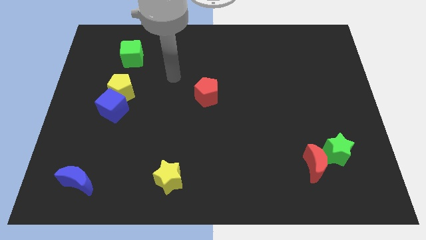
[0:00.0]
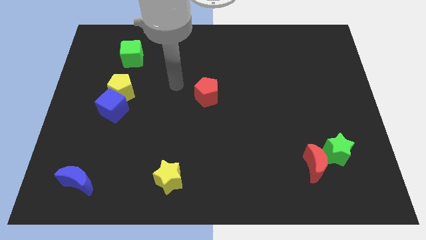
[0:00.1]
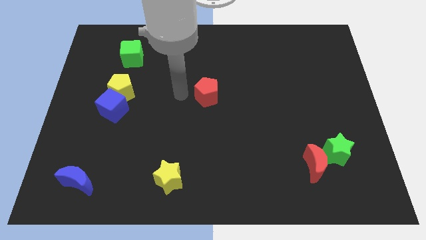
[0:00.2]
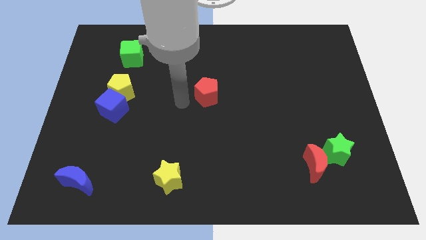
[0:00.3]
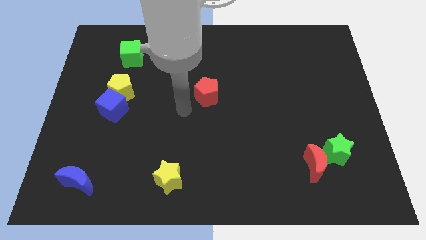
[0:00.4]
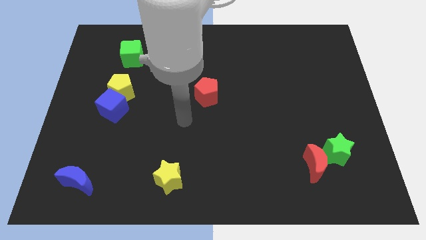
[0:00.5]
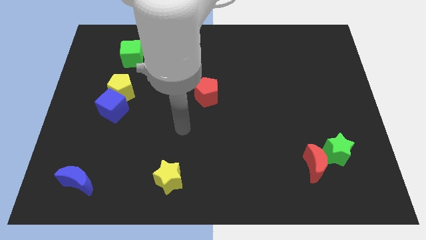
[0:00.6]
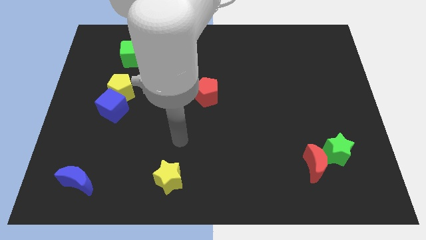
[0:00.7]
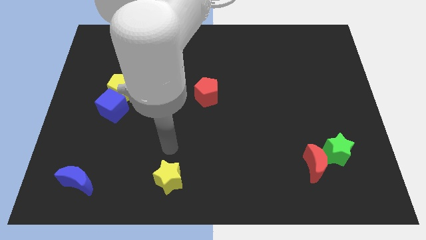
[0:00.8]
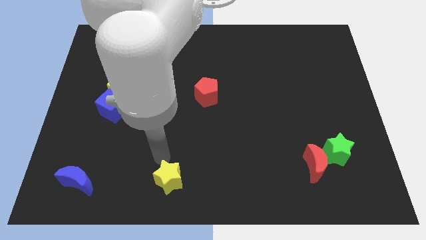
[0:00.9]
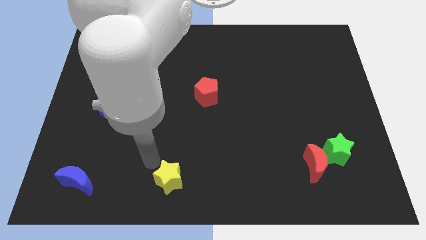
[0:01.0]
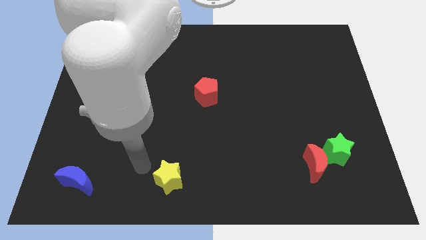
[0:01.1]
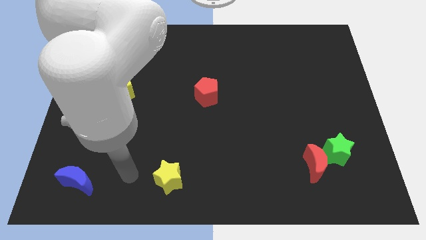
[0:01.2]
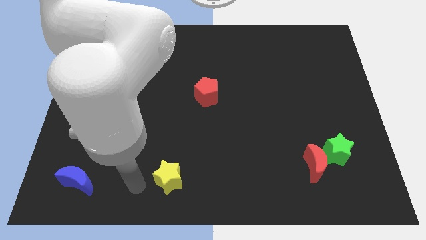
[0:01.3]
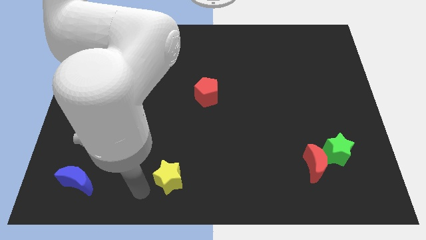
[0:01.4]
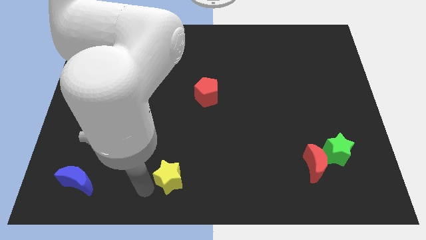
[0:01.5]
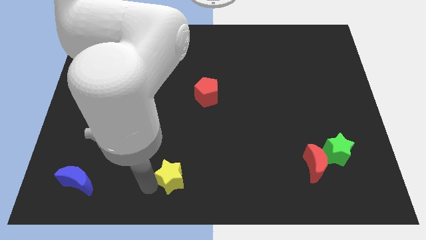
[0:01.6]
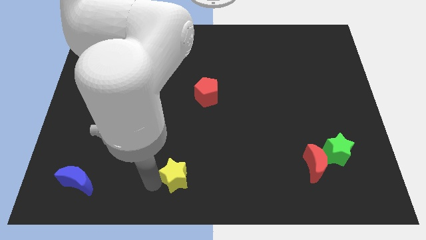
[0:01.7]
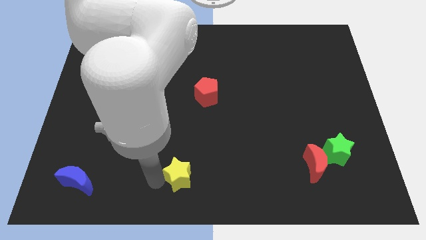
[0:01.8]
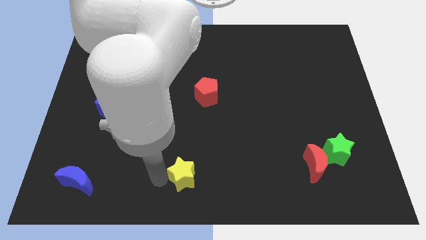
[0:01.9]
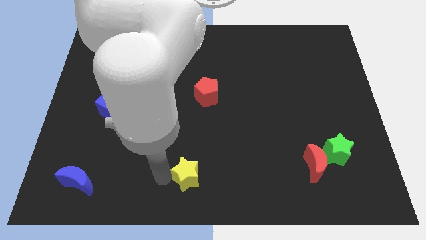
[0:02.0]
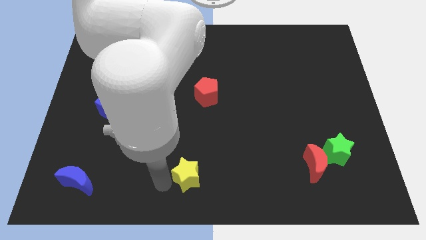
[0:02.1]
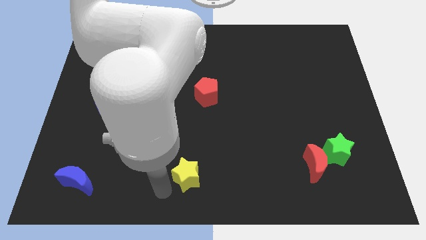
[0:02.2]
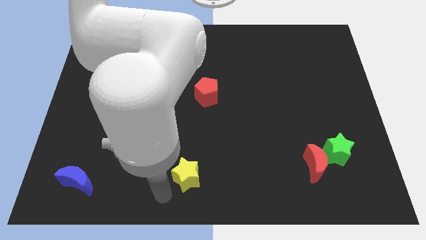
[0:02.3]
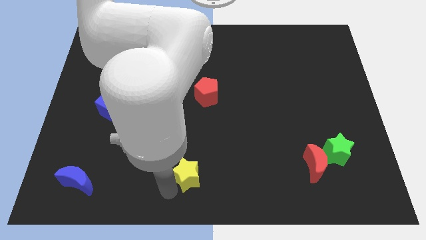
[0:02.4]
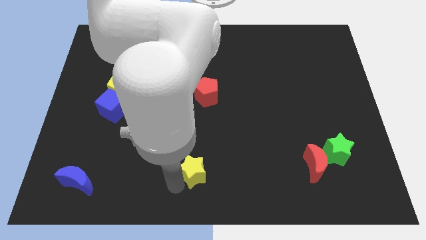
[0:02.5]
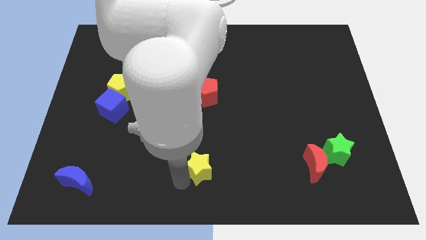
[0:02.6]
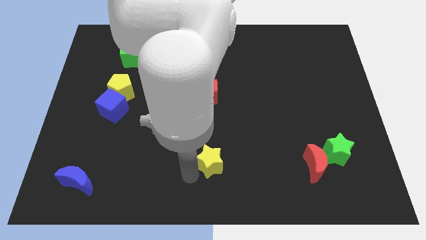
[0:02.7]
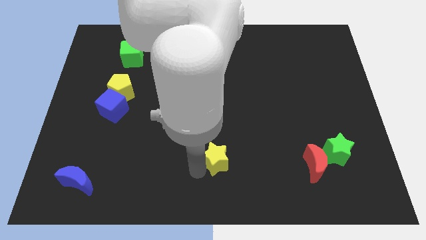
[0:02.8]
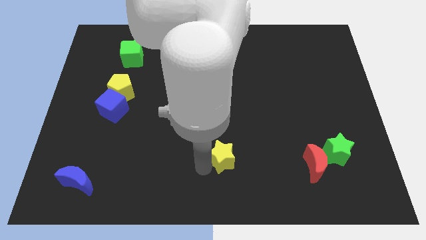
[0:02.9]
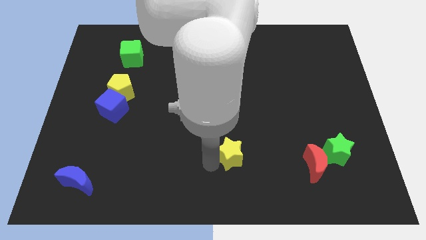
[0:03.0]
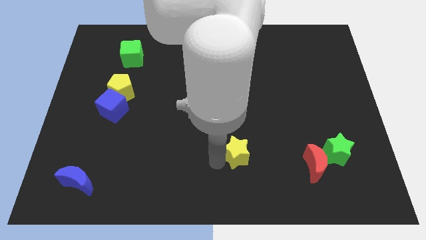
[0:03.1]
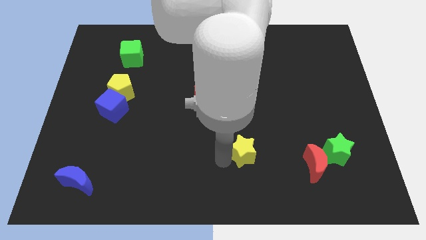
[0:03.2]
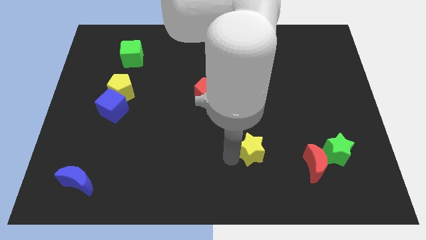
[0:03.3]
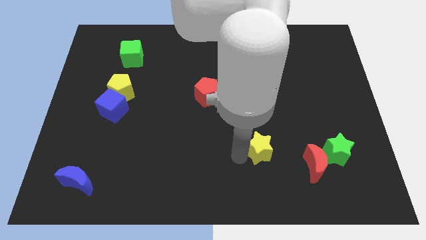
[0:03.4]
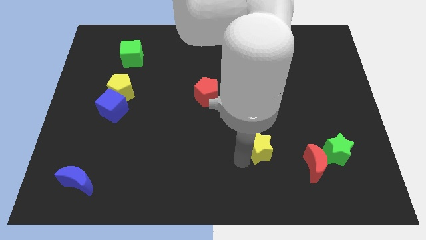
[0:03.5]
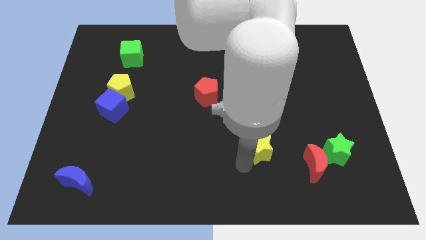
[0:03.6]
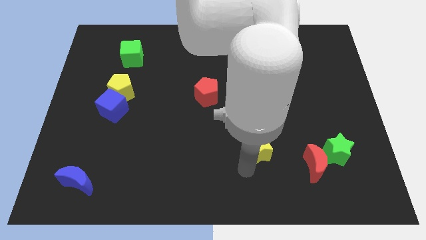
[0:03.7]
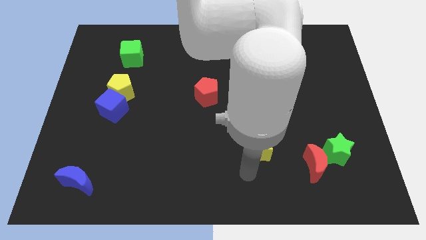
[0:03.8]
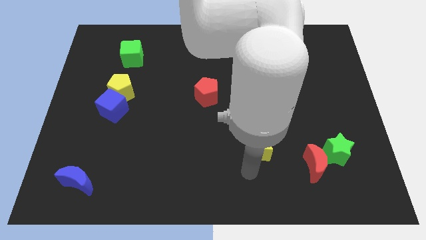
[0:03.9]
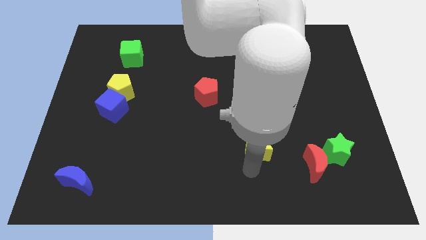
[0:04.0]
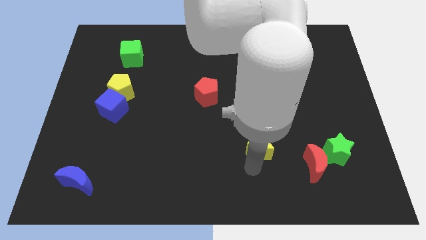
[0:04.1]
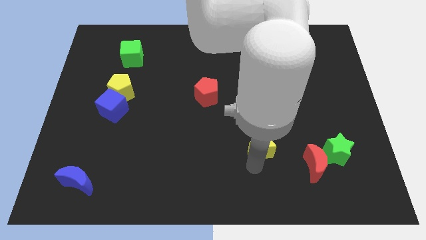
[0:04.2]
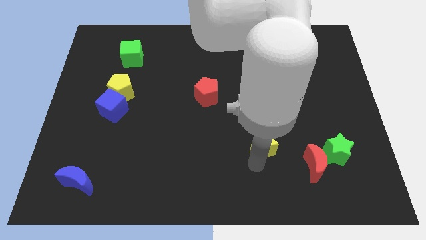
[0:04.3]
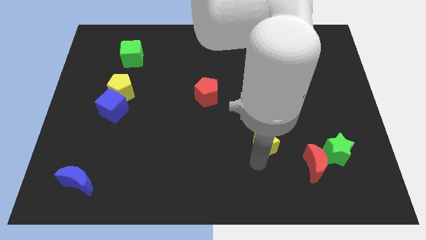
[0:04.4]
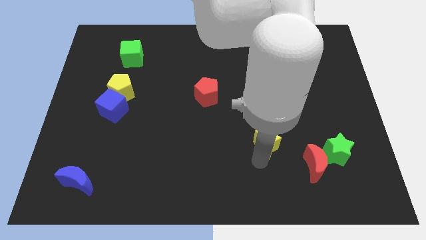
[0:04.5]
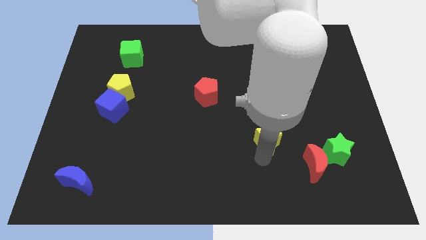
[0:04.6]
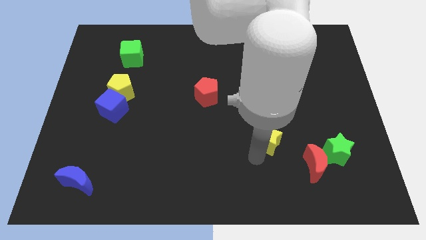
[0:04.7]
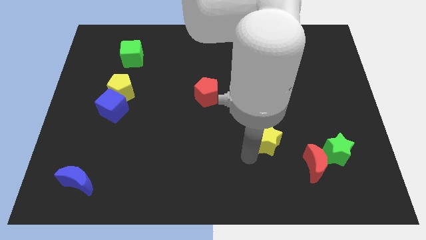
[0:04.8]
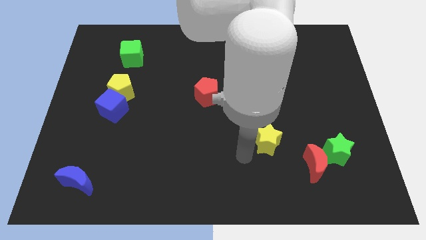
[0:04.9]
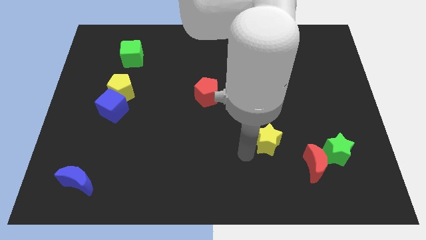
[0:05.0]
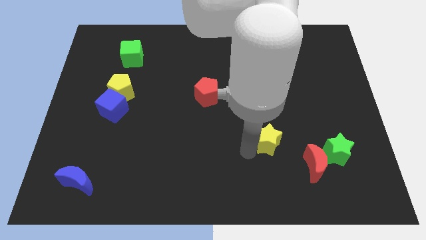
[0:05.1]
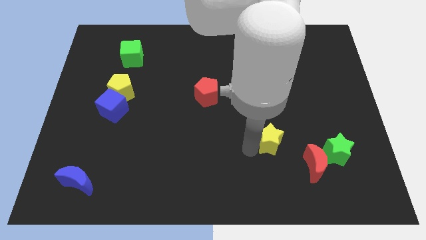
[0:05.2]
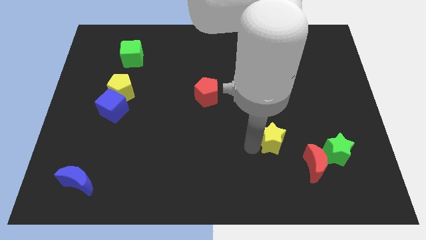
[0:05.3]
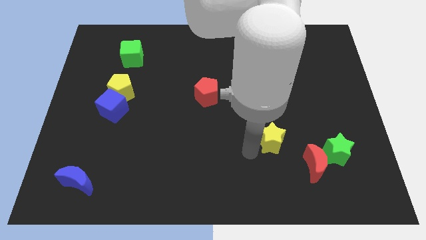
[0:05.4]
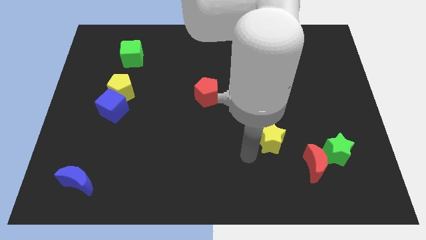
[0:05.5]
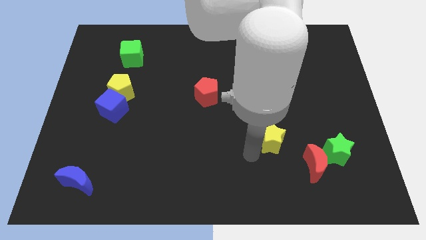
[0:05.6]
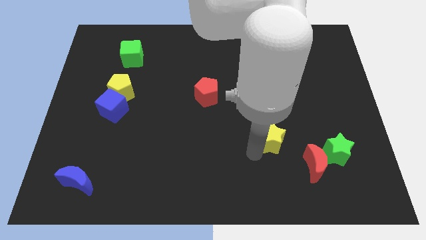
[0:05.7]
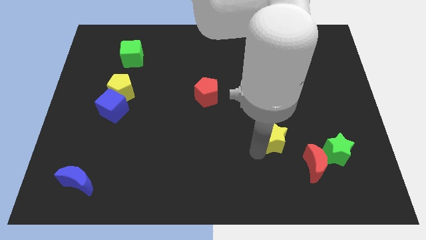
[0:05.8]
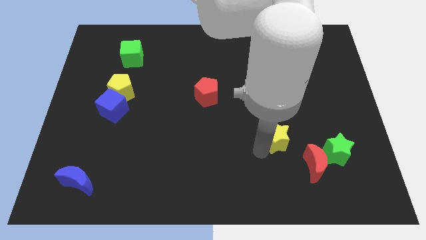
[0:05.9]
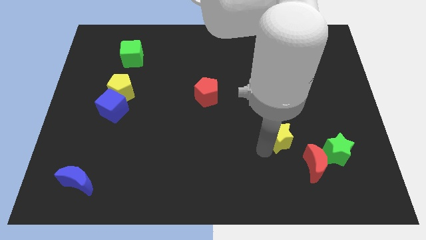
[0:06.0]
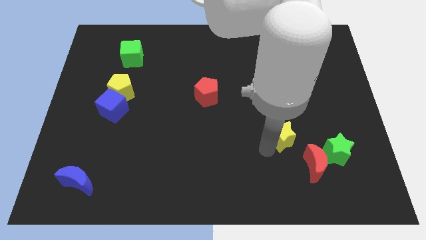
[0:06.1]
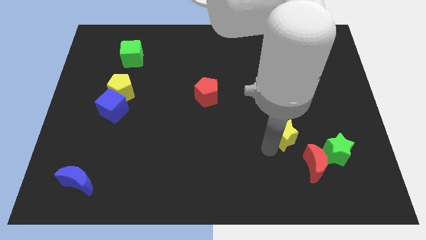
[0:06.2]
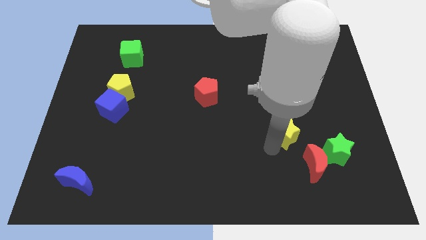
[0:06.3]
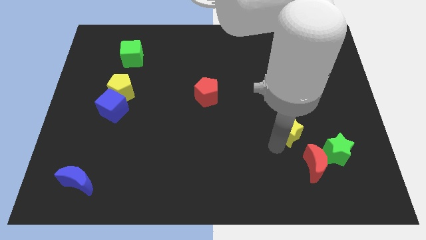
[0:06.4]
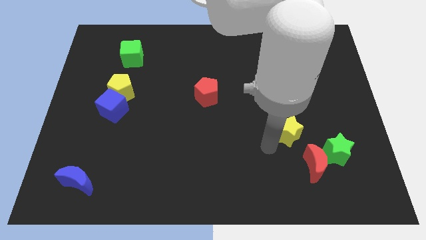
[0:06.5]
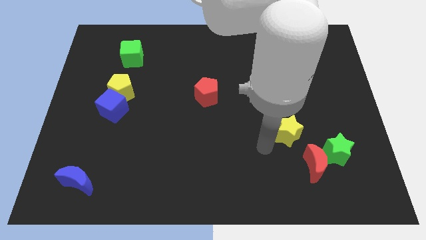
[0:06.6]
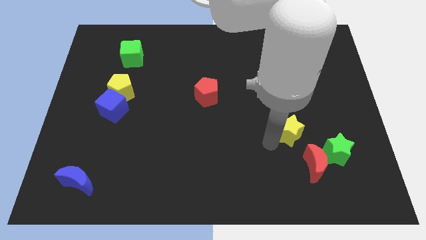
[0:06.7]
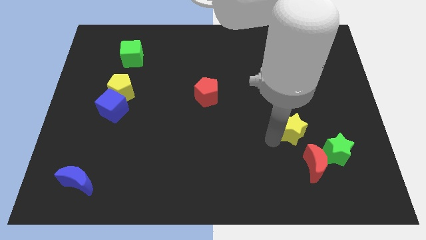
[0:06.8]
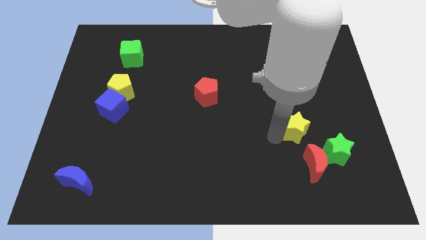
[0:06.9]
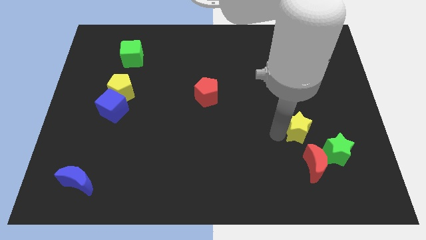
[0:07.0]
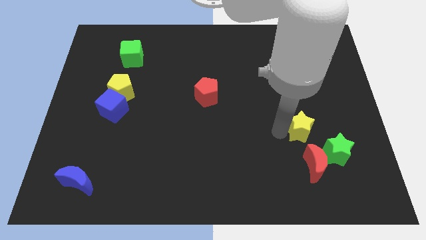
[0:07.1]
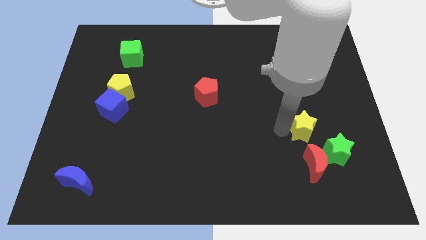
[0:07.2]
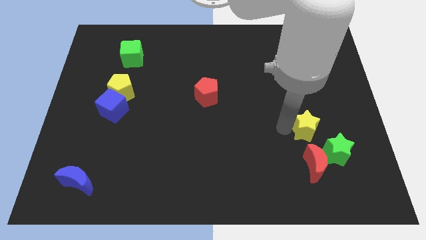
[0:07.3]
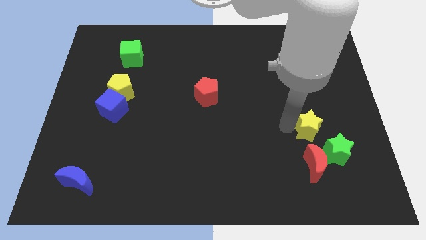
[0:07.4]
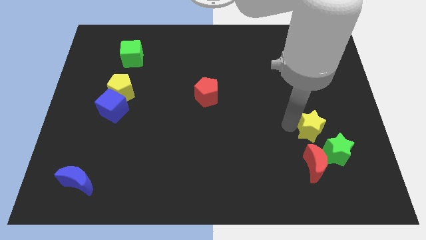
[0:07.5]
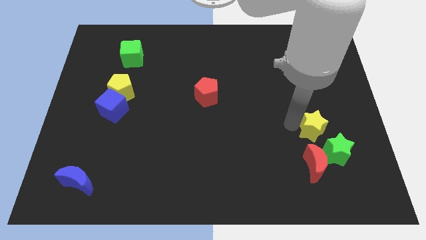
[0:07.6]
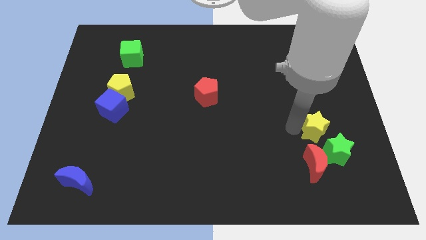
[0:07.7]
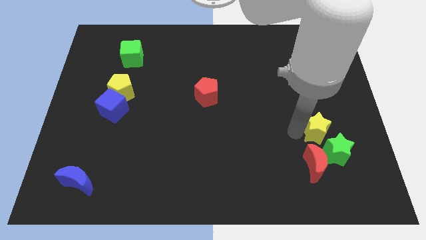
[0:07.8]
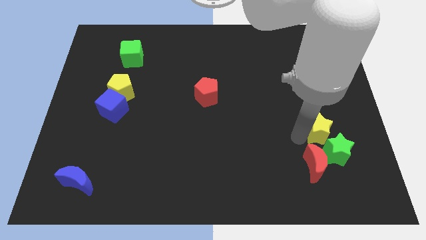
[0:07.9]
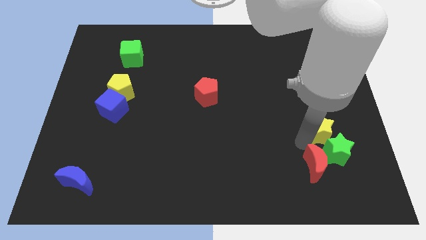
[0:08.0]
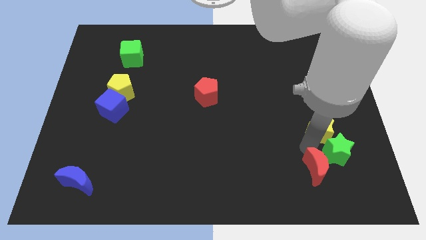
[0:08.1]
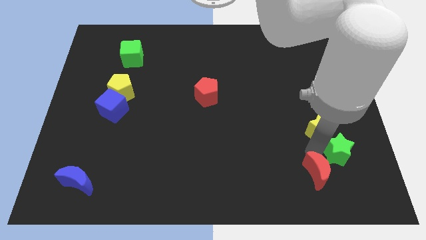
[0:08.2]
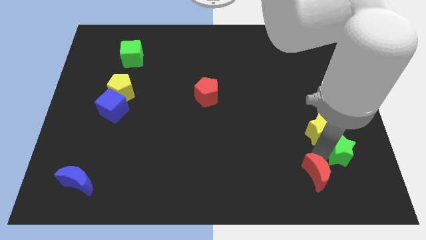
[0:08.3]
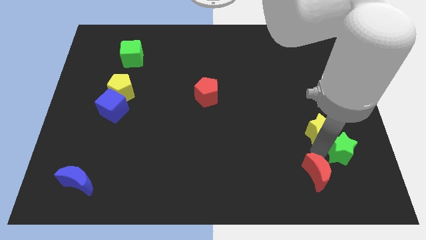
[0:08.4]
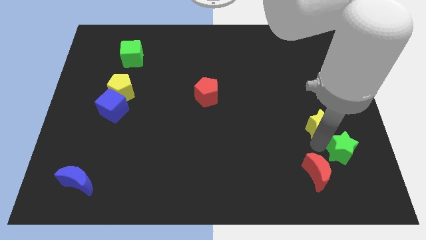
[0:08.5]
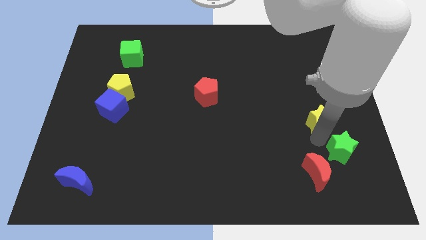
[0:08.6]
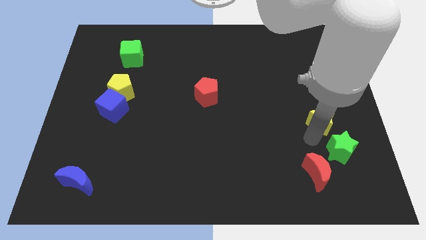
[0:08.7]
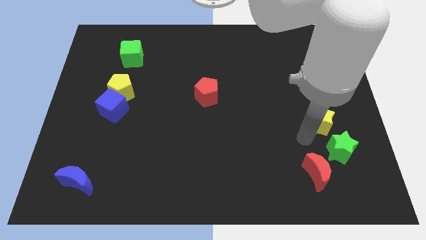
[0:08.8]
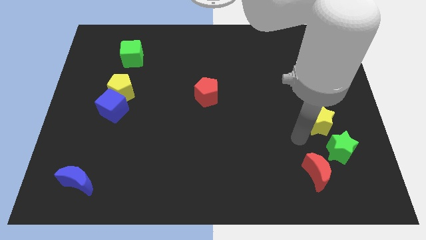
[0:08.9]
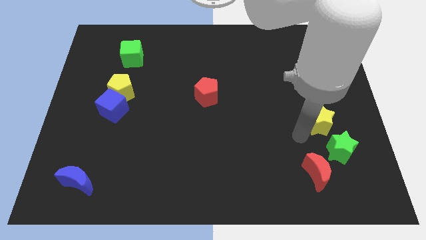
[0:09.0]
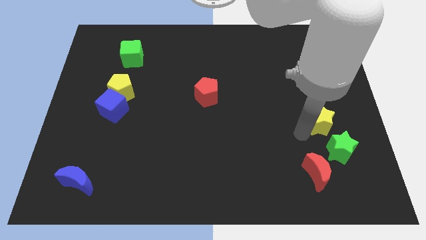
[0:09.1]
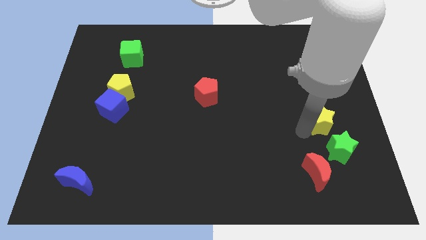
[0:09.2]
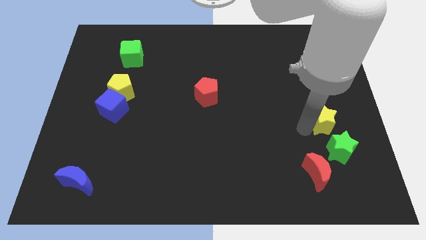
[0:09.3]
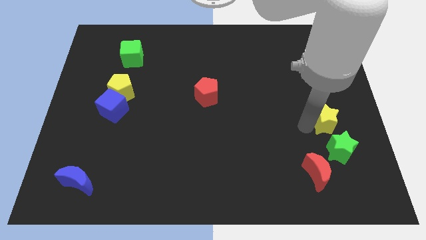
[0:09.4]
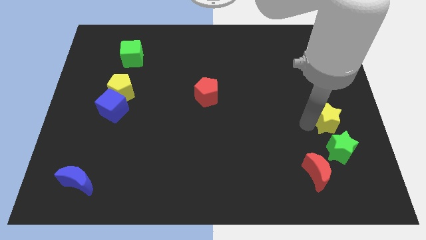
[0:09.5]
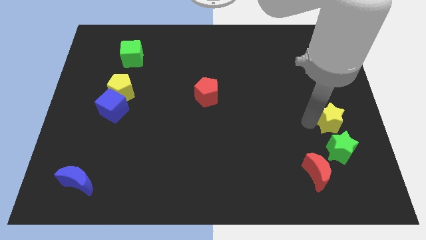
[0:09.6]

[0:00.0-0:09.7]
push the yellow star to the right side
